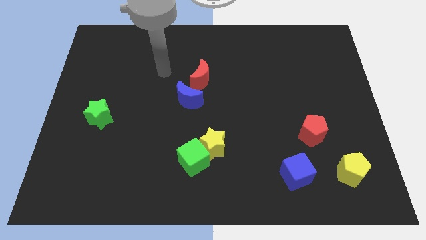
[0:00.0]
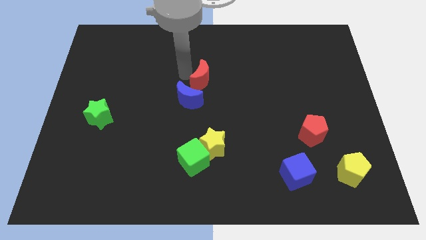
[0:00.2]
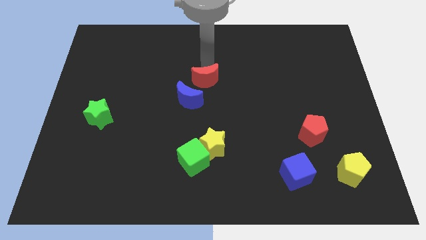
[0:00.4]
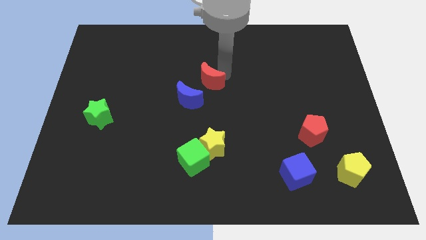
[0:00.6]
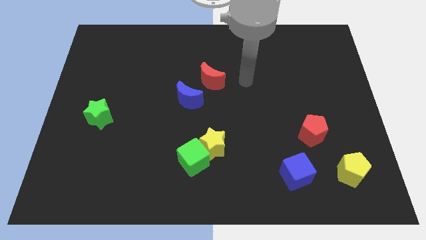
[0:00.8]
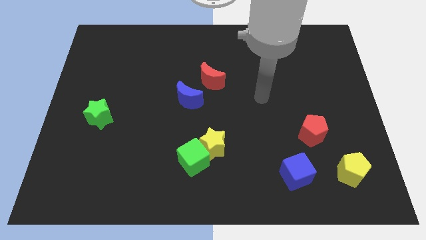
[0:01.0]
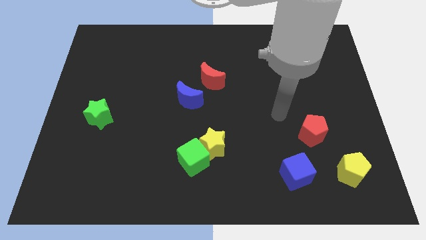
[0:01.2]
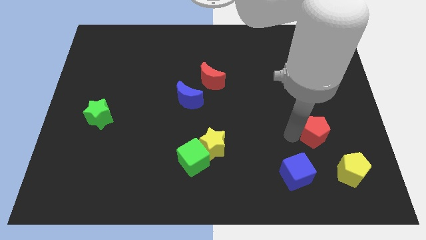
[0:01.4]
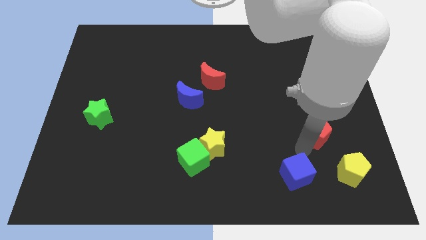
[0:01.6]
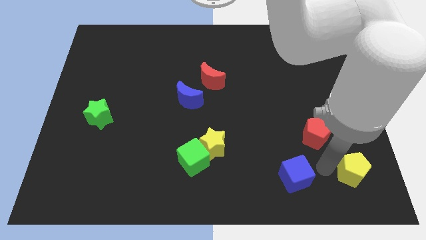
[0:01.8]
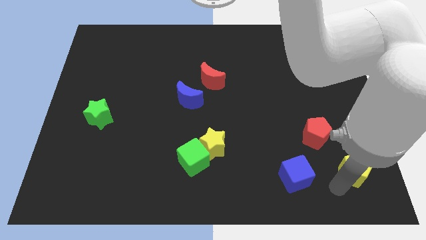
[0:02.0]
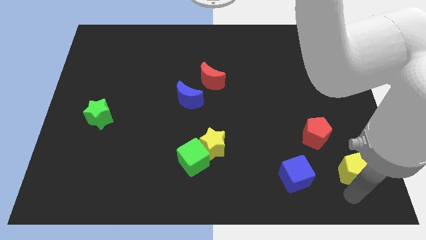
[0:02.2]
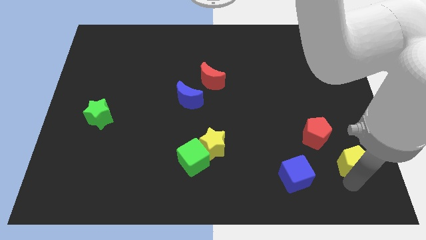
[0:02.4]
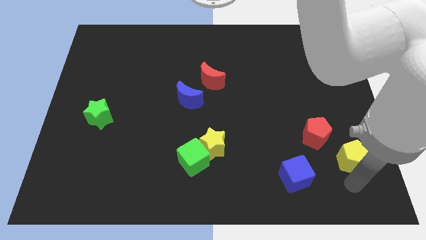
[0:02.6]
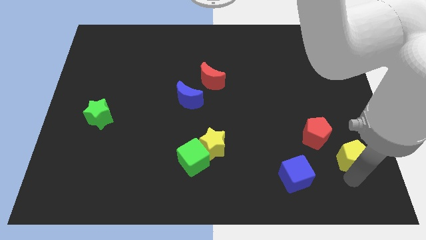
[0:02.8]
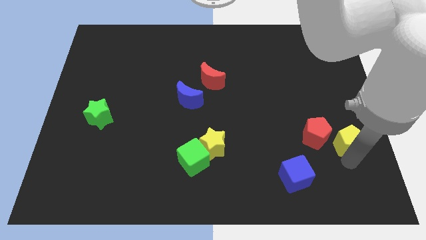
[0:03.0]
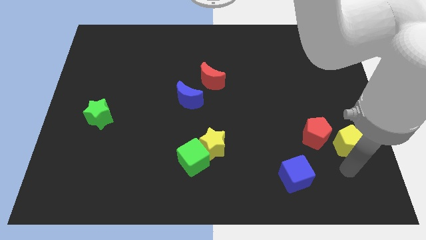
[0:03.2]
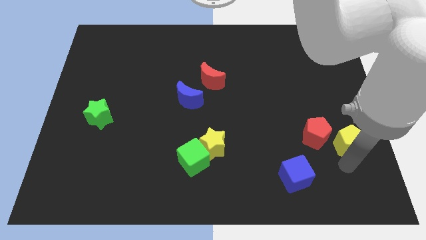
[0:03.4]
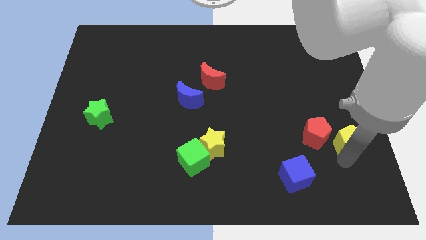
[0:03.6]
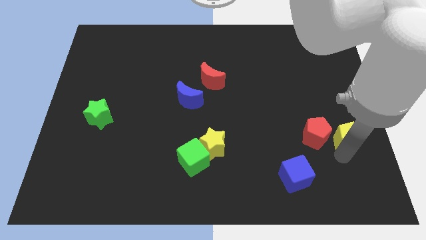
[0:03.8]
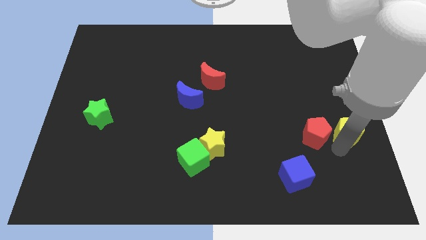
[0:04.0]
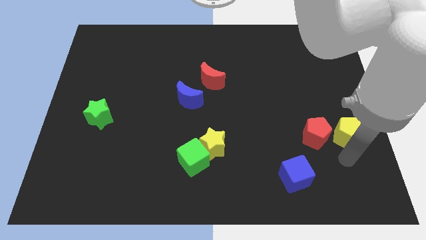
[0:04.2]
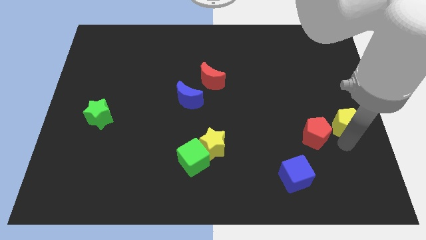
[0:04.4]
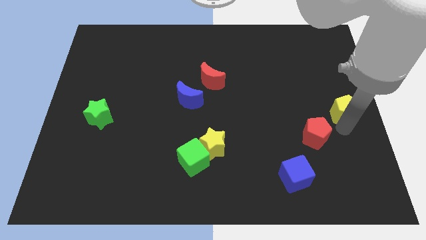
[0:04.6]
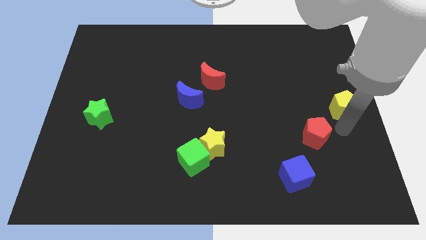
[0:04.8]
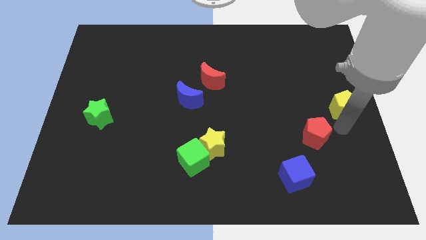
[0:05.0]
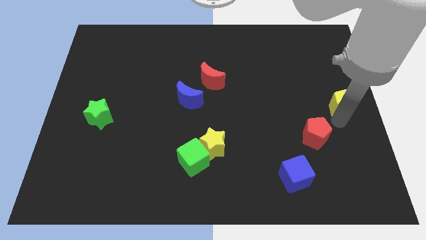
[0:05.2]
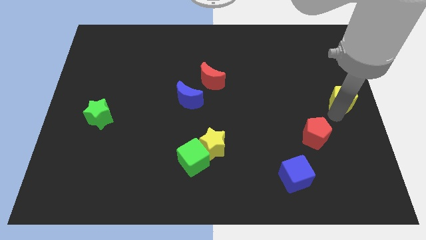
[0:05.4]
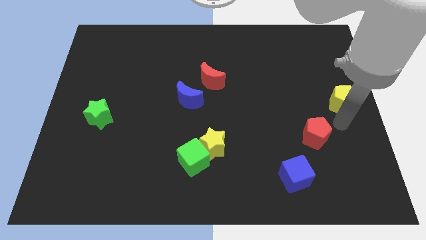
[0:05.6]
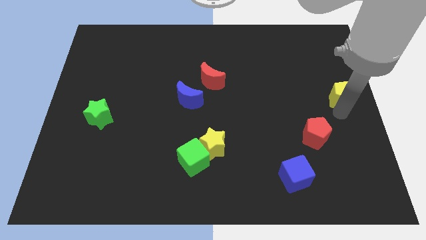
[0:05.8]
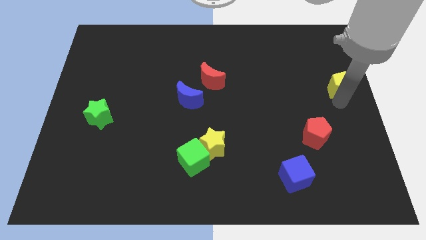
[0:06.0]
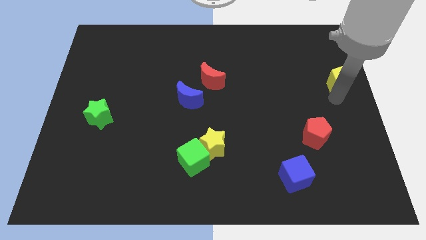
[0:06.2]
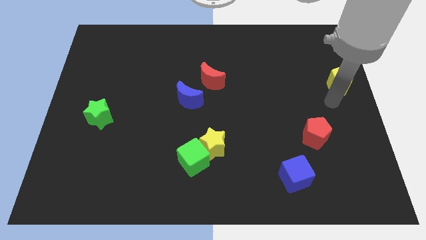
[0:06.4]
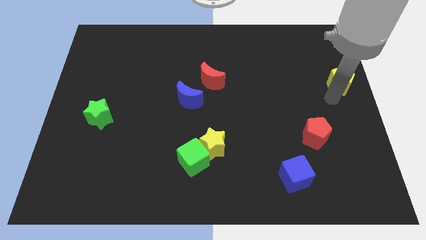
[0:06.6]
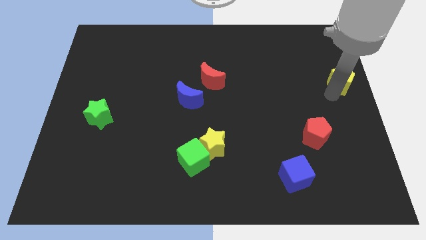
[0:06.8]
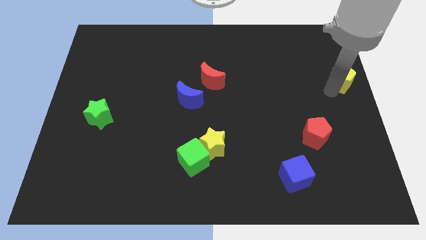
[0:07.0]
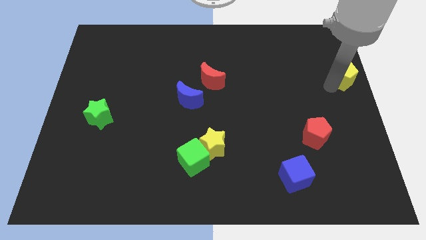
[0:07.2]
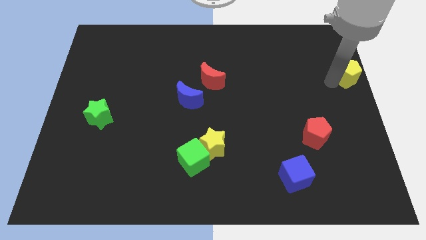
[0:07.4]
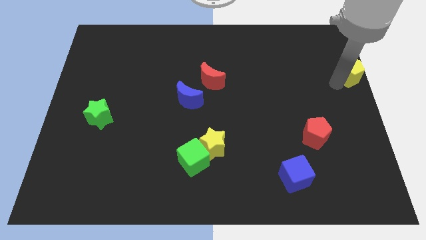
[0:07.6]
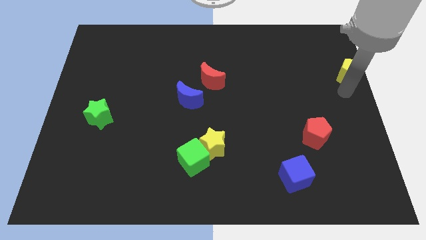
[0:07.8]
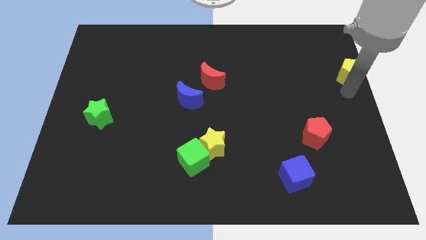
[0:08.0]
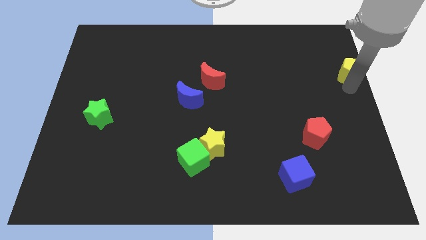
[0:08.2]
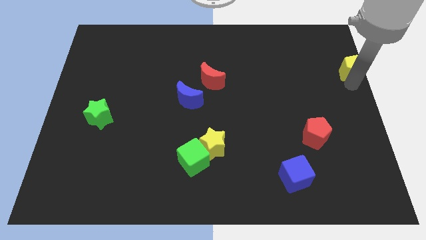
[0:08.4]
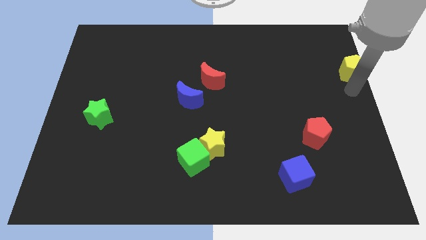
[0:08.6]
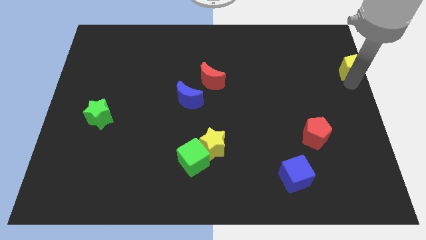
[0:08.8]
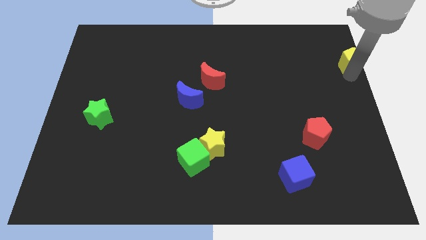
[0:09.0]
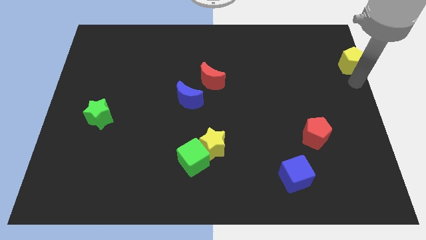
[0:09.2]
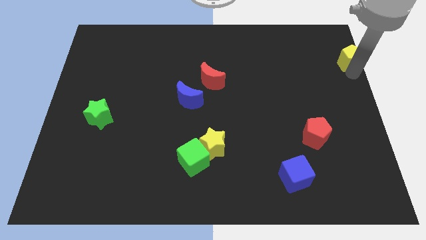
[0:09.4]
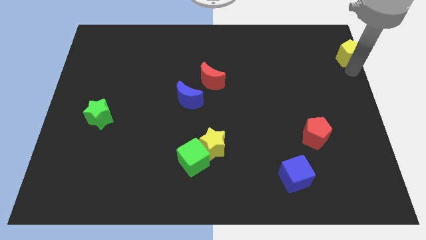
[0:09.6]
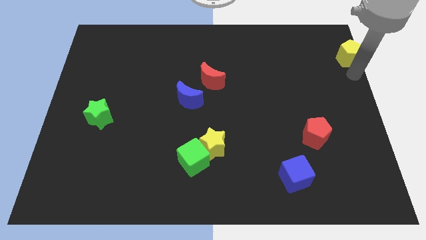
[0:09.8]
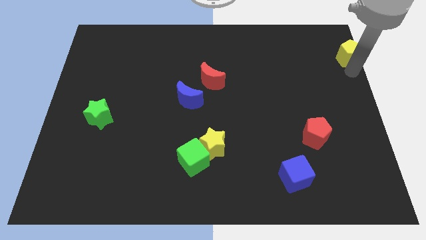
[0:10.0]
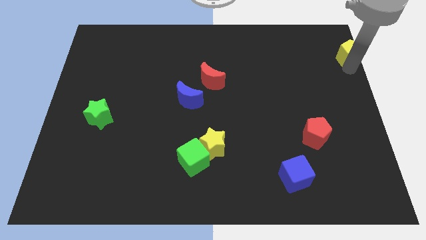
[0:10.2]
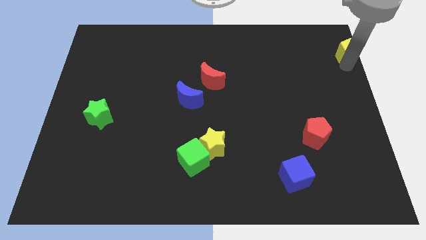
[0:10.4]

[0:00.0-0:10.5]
push the yellow pentagon to the upper right corner
